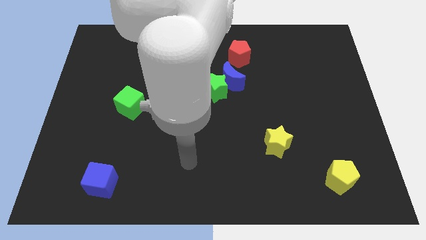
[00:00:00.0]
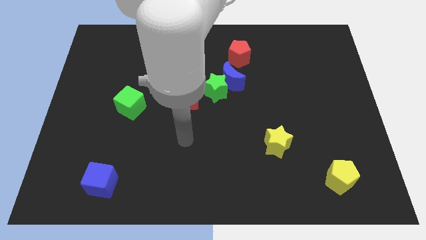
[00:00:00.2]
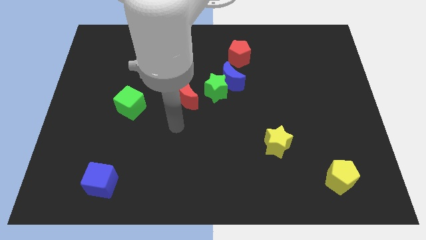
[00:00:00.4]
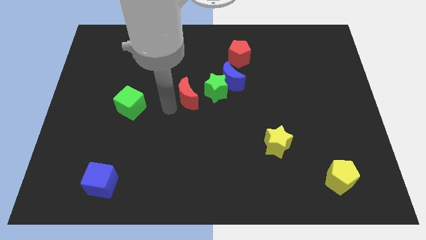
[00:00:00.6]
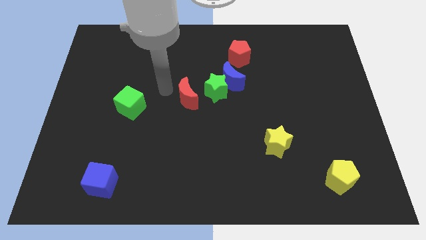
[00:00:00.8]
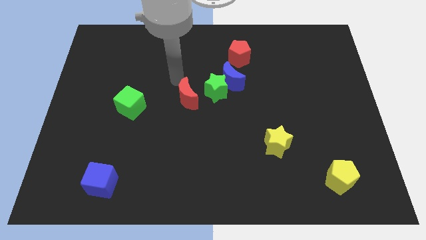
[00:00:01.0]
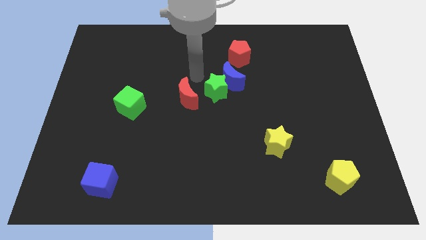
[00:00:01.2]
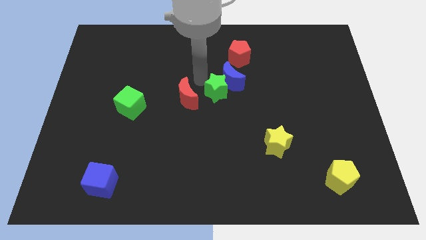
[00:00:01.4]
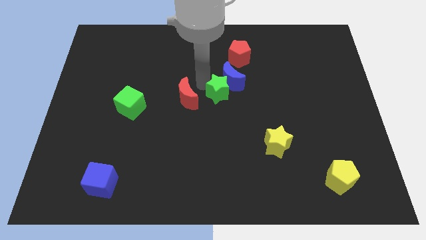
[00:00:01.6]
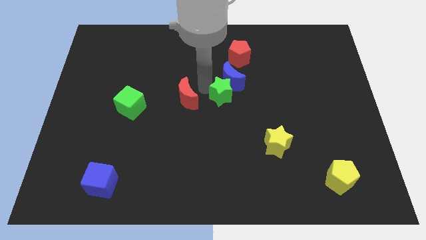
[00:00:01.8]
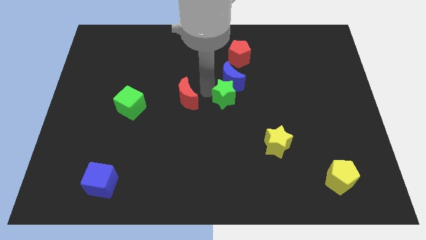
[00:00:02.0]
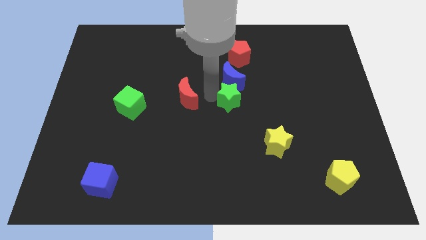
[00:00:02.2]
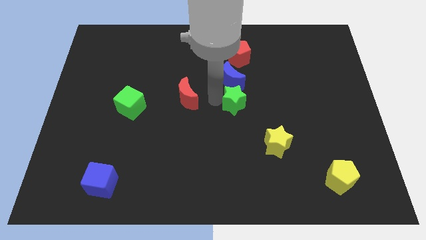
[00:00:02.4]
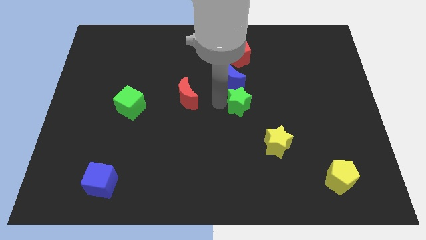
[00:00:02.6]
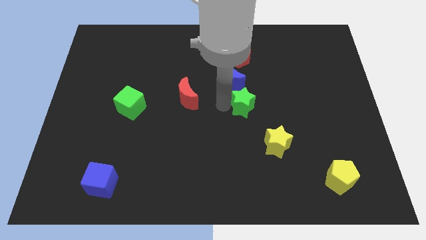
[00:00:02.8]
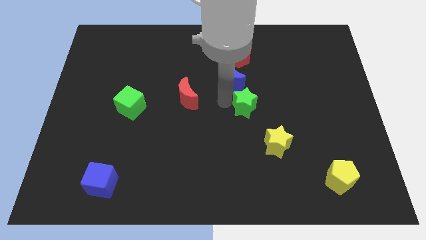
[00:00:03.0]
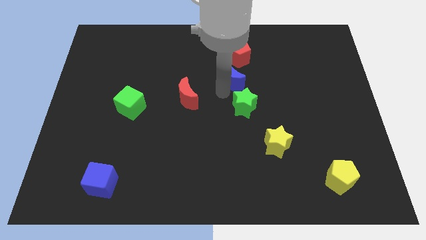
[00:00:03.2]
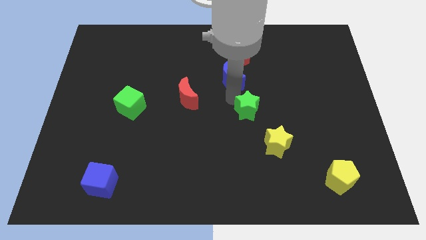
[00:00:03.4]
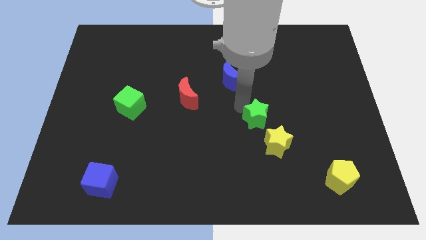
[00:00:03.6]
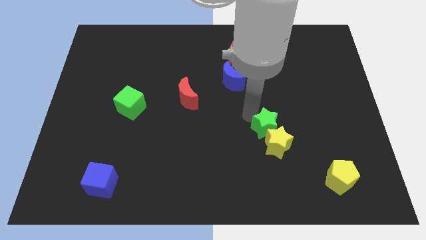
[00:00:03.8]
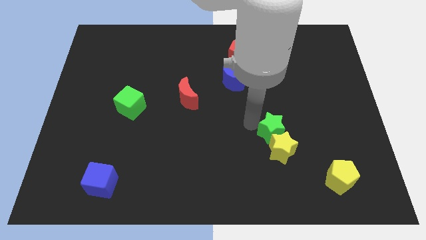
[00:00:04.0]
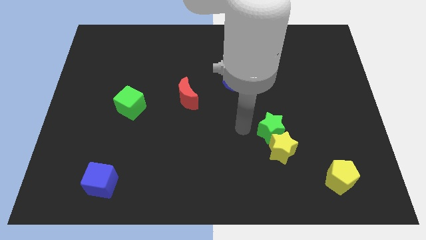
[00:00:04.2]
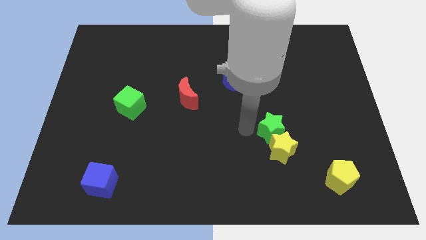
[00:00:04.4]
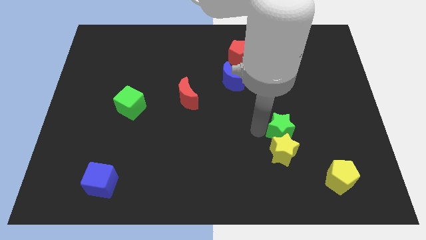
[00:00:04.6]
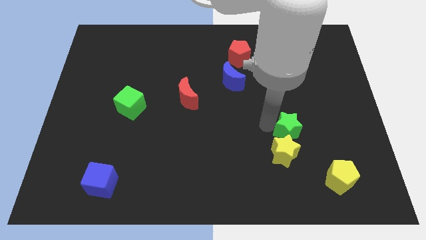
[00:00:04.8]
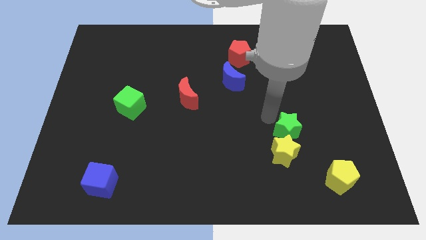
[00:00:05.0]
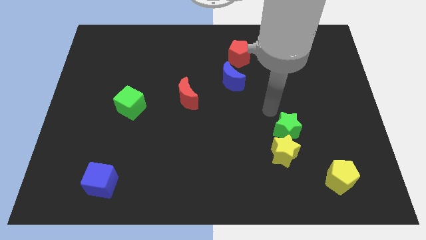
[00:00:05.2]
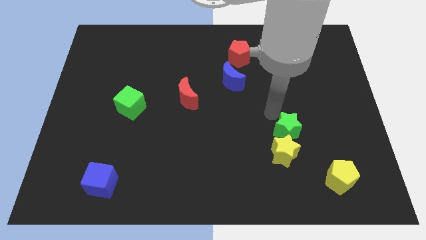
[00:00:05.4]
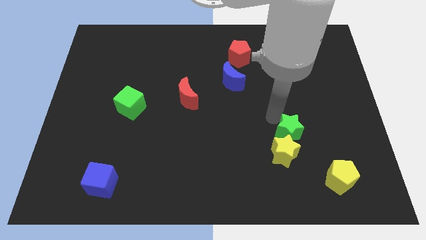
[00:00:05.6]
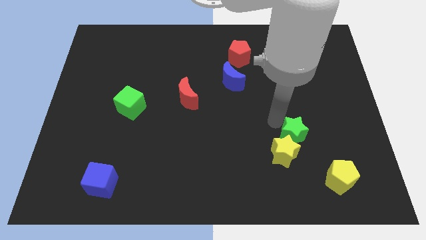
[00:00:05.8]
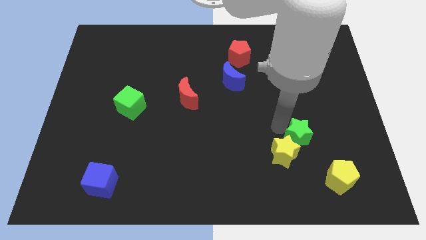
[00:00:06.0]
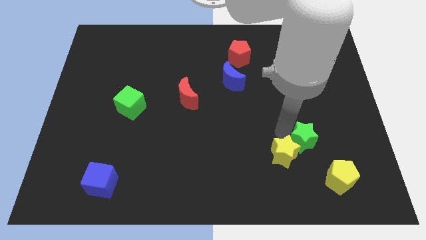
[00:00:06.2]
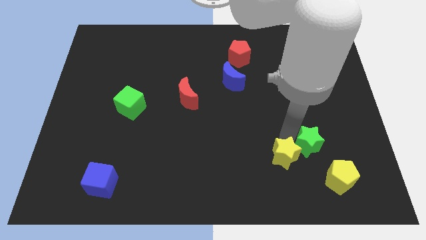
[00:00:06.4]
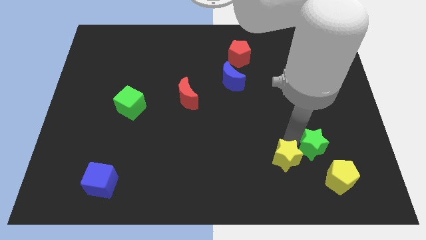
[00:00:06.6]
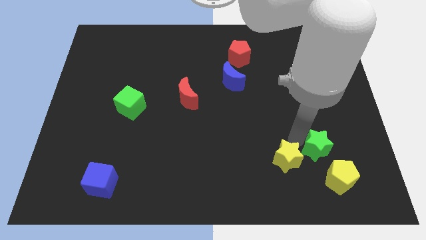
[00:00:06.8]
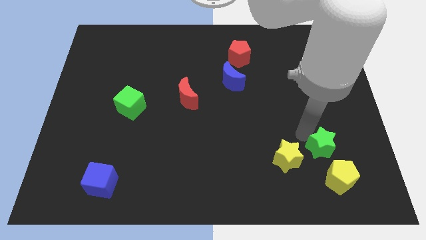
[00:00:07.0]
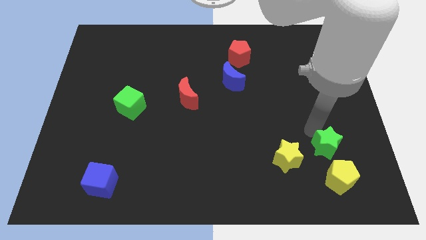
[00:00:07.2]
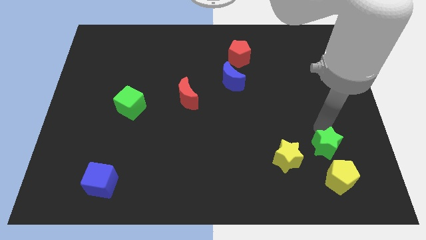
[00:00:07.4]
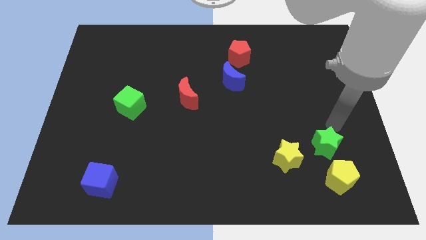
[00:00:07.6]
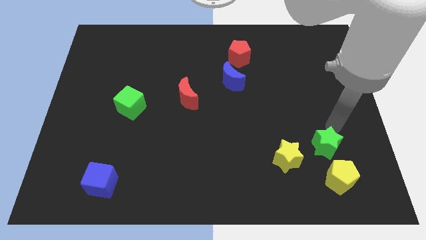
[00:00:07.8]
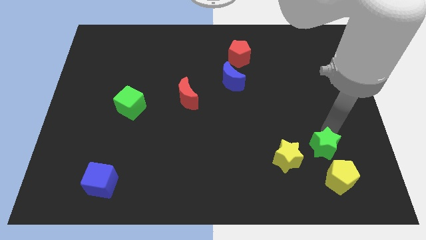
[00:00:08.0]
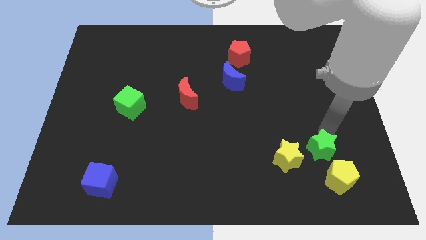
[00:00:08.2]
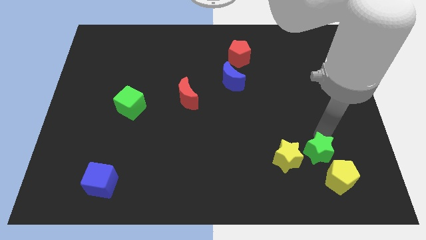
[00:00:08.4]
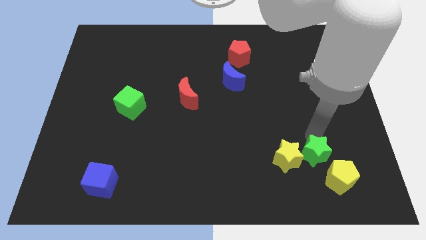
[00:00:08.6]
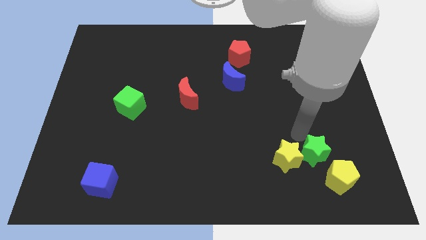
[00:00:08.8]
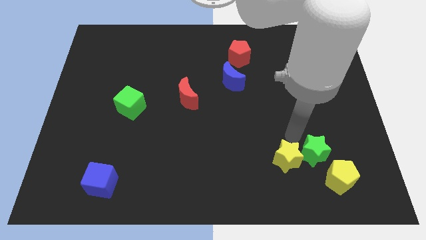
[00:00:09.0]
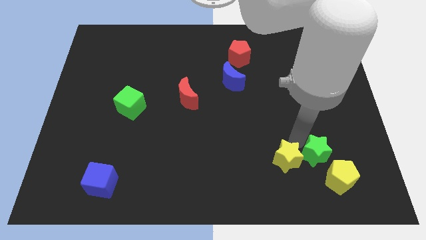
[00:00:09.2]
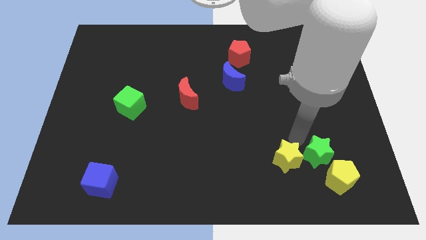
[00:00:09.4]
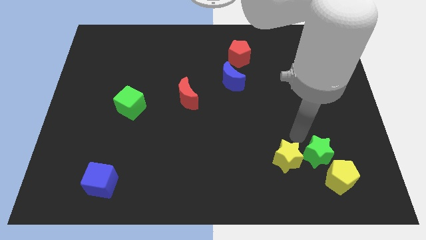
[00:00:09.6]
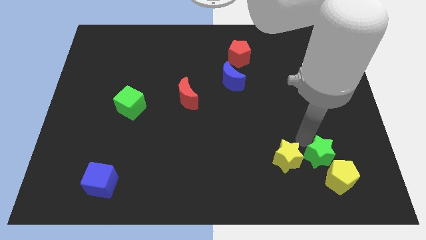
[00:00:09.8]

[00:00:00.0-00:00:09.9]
push the green star to the yellow pentagon

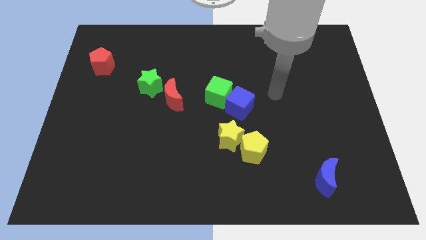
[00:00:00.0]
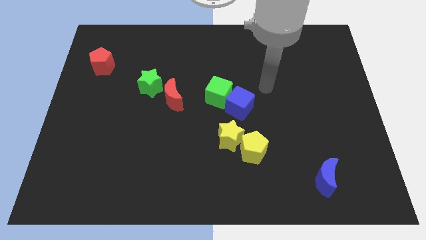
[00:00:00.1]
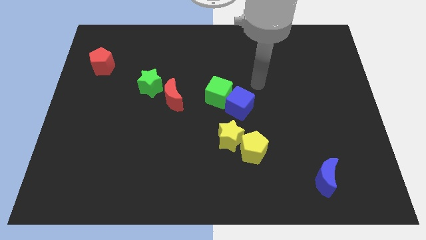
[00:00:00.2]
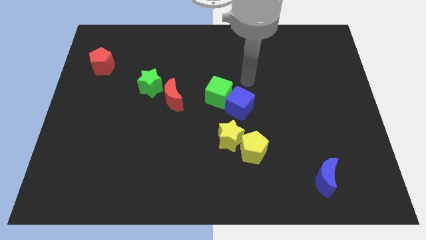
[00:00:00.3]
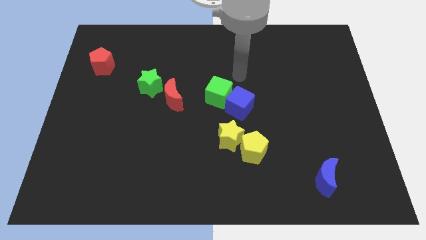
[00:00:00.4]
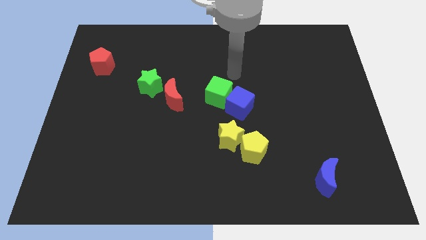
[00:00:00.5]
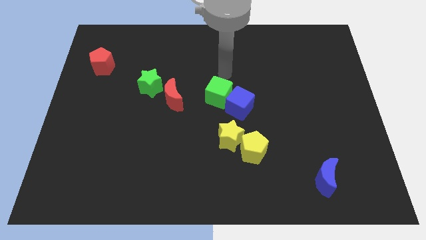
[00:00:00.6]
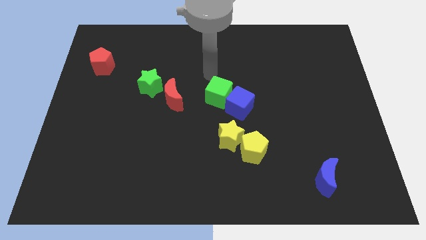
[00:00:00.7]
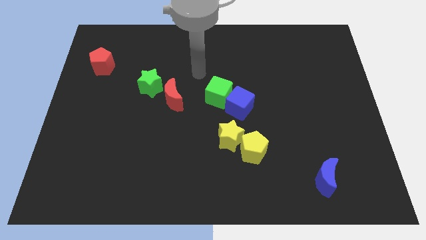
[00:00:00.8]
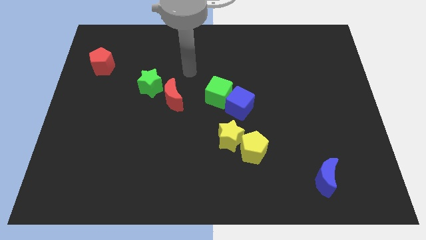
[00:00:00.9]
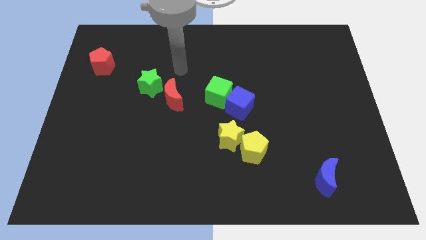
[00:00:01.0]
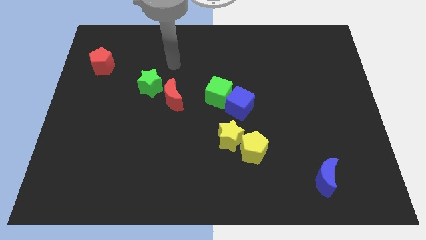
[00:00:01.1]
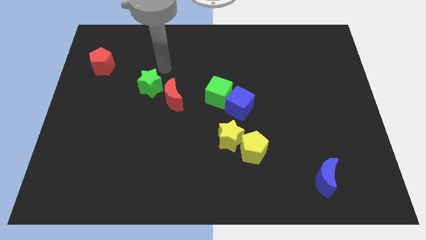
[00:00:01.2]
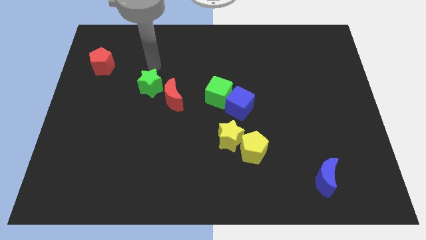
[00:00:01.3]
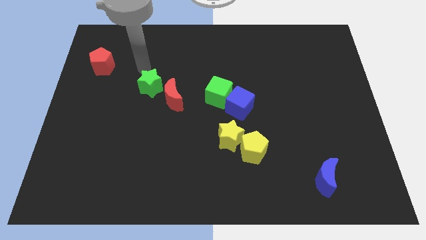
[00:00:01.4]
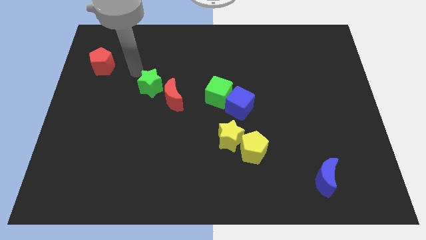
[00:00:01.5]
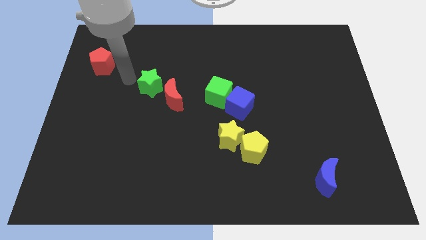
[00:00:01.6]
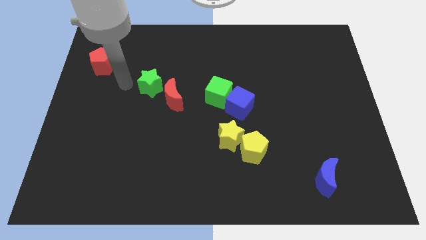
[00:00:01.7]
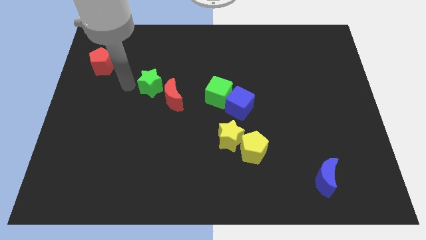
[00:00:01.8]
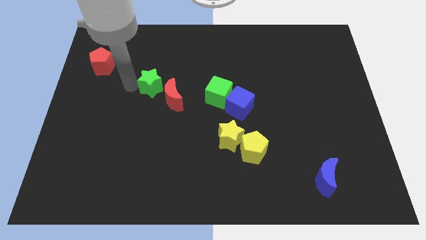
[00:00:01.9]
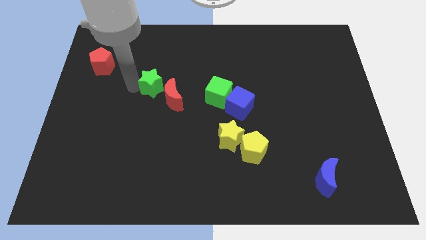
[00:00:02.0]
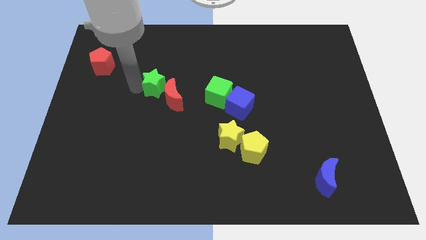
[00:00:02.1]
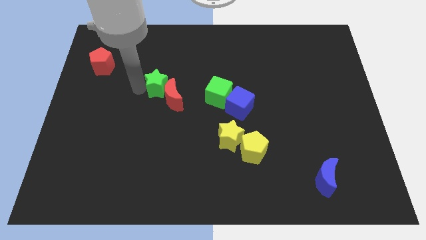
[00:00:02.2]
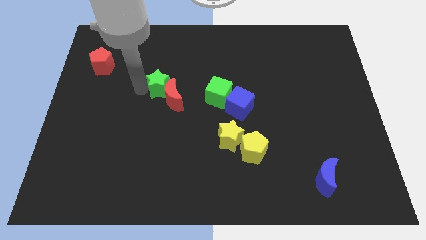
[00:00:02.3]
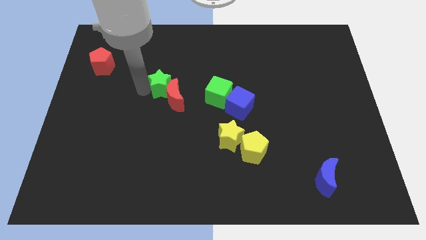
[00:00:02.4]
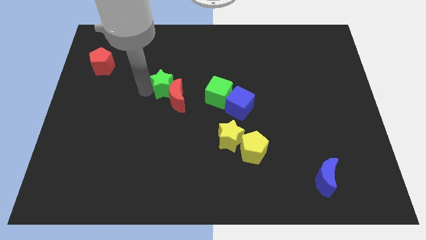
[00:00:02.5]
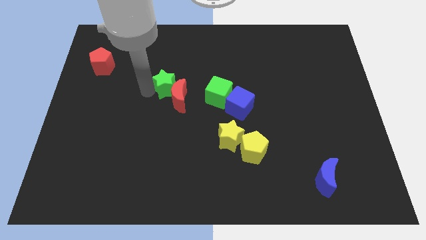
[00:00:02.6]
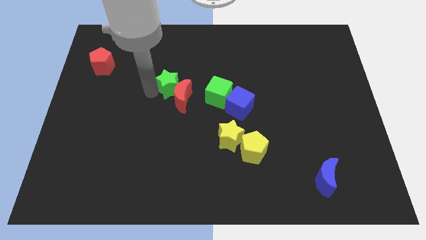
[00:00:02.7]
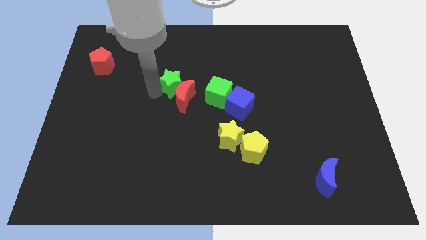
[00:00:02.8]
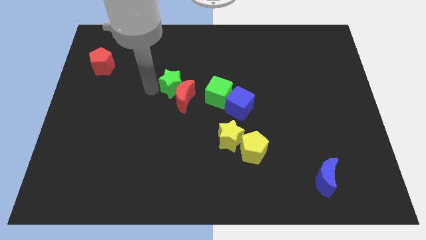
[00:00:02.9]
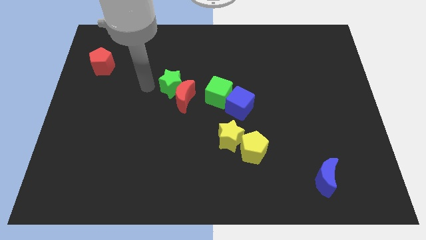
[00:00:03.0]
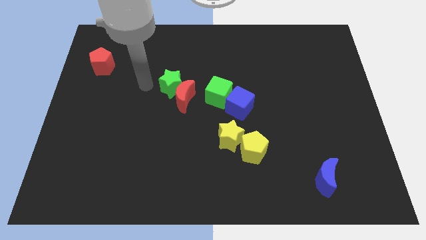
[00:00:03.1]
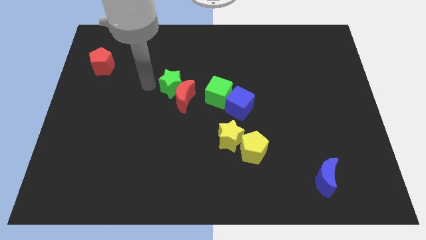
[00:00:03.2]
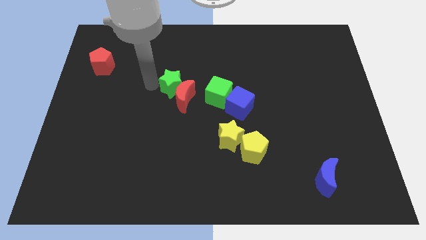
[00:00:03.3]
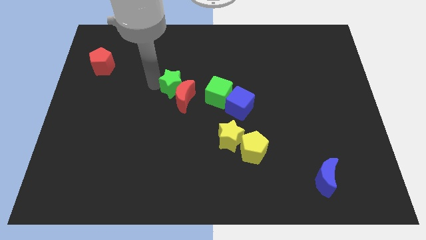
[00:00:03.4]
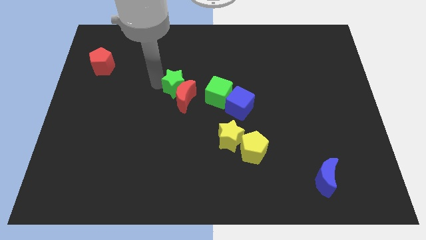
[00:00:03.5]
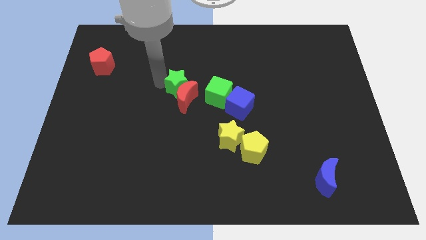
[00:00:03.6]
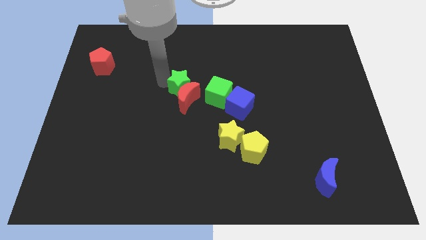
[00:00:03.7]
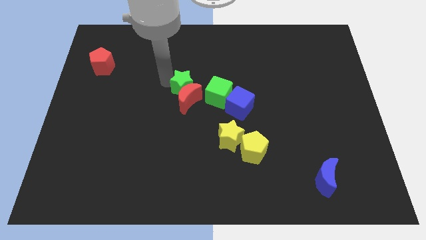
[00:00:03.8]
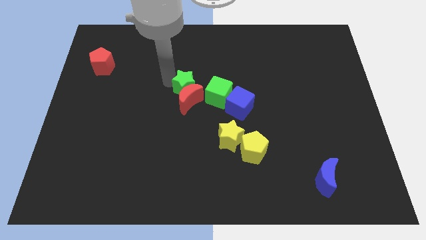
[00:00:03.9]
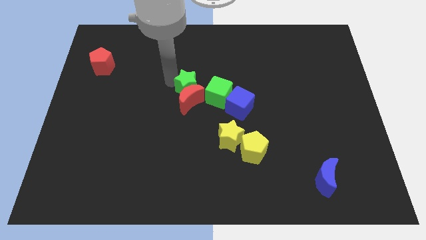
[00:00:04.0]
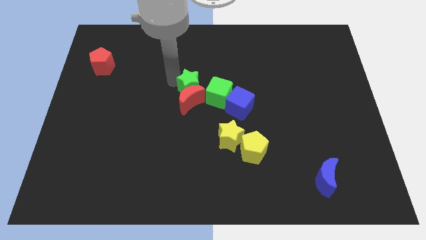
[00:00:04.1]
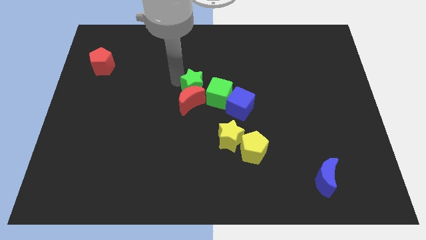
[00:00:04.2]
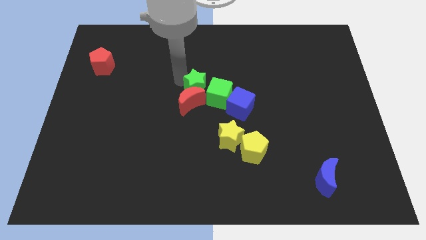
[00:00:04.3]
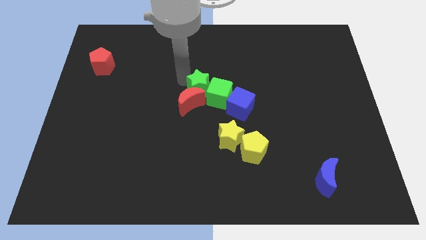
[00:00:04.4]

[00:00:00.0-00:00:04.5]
put the green star towards the green cube
